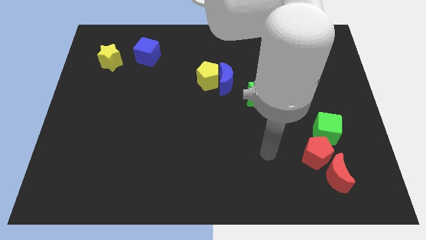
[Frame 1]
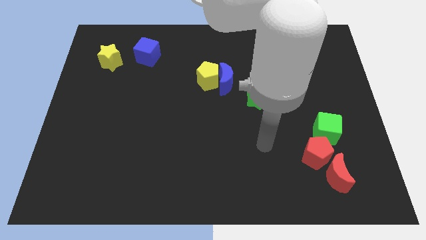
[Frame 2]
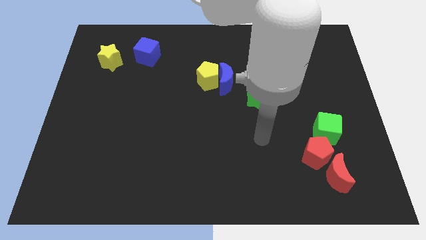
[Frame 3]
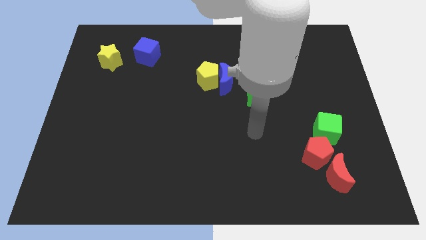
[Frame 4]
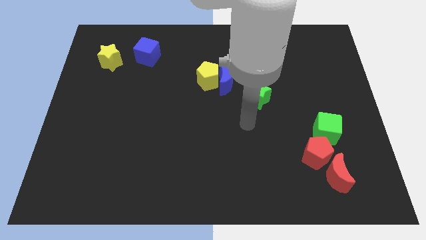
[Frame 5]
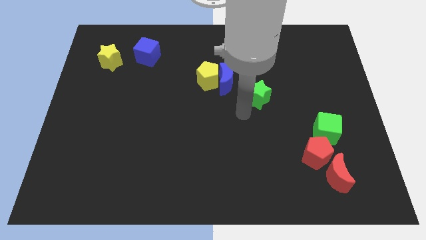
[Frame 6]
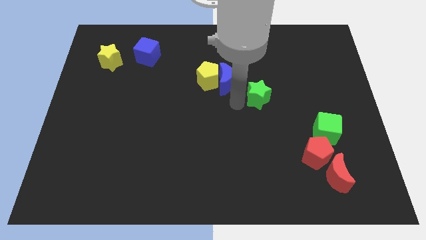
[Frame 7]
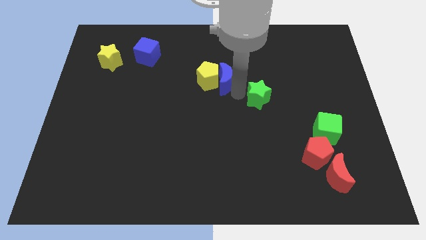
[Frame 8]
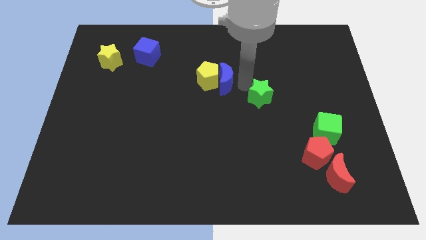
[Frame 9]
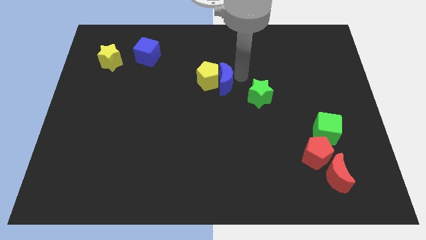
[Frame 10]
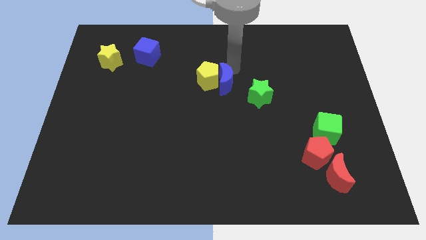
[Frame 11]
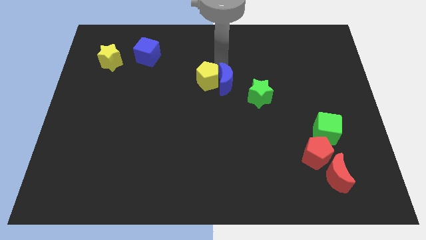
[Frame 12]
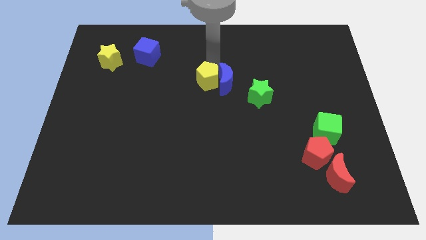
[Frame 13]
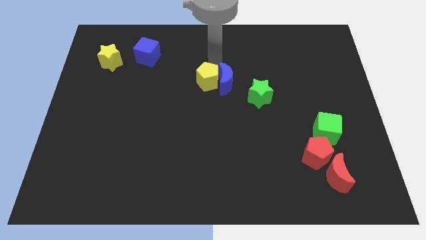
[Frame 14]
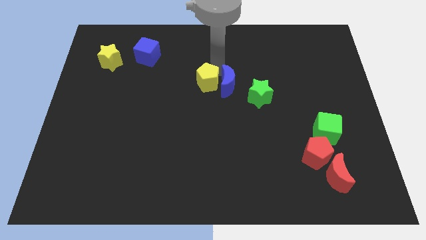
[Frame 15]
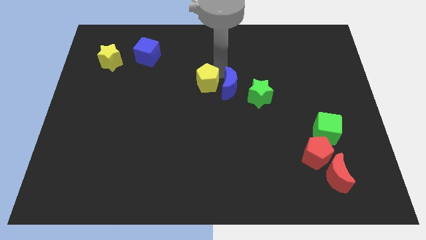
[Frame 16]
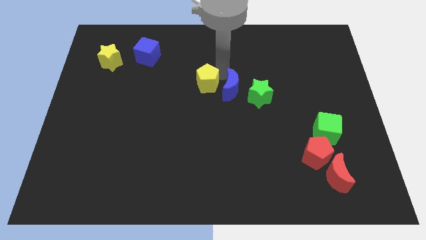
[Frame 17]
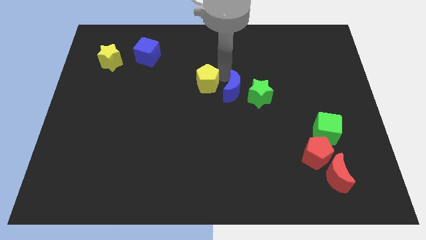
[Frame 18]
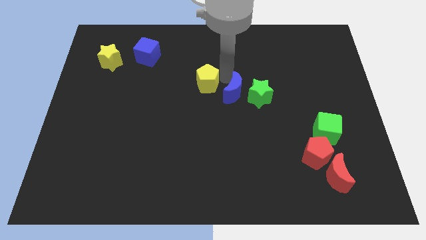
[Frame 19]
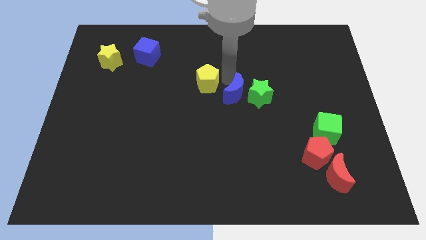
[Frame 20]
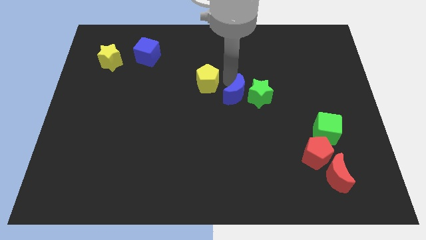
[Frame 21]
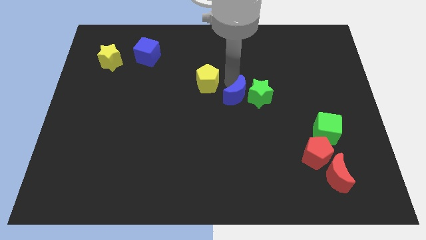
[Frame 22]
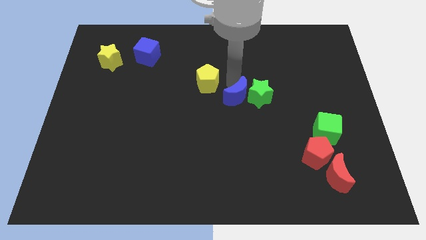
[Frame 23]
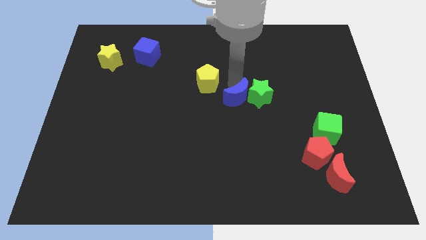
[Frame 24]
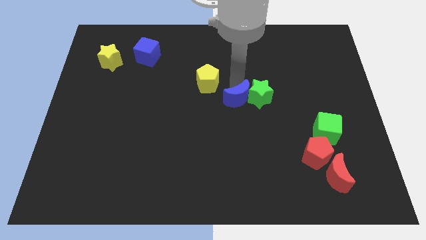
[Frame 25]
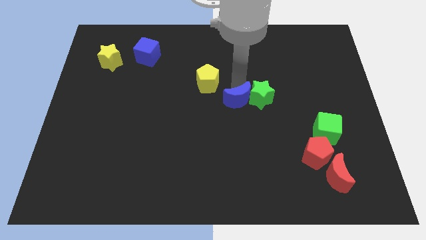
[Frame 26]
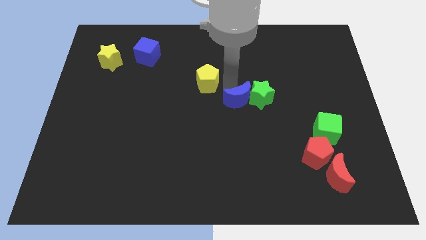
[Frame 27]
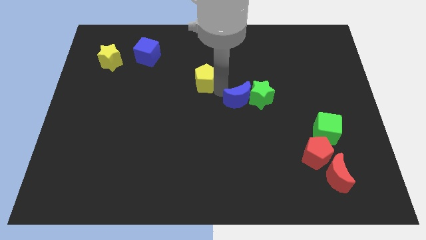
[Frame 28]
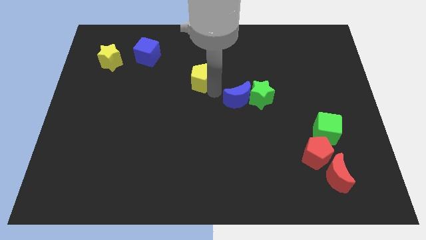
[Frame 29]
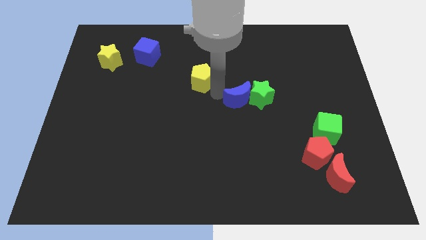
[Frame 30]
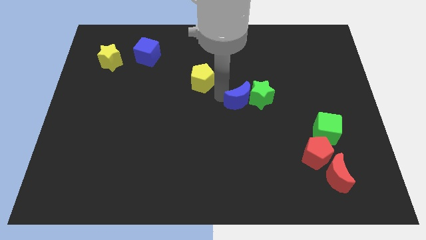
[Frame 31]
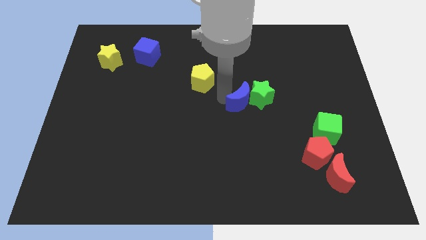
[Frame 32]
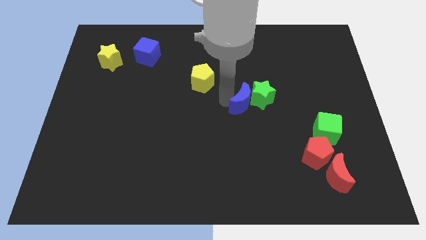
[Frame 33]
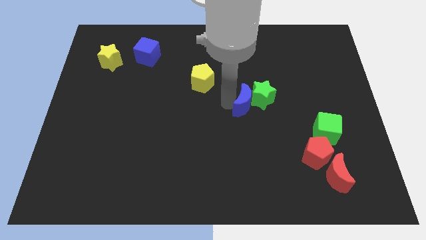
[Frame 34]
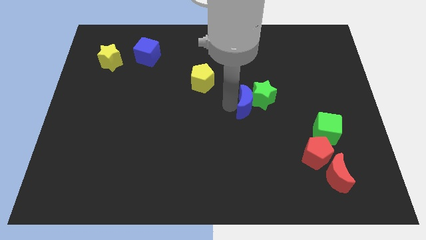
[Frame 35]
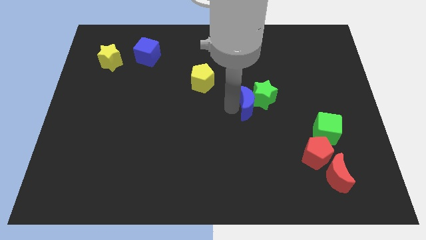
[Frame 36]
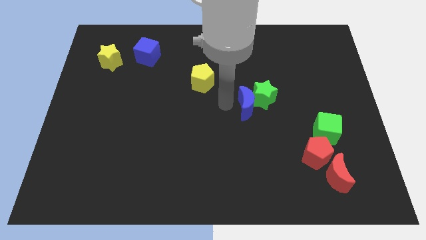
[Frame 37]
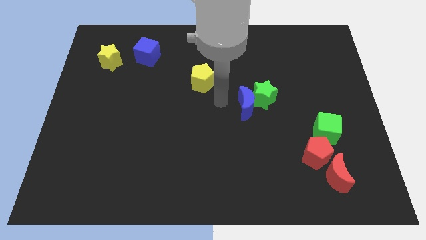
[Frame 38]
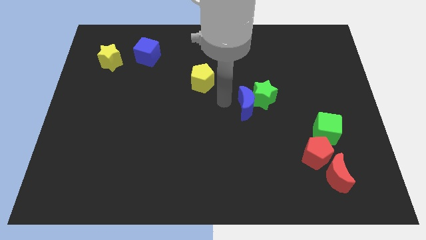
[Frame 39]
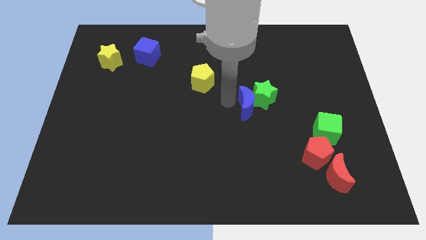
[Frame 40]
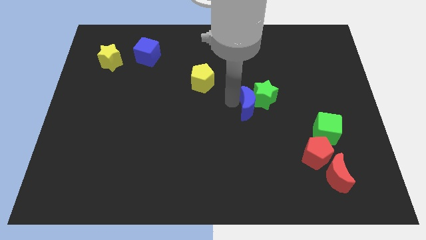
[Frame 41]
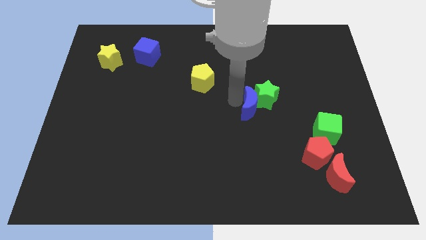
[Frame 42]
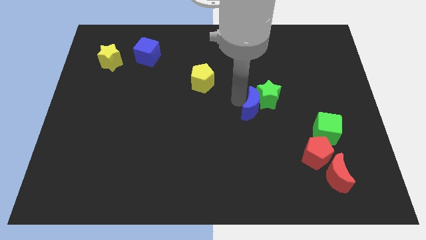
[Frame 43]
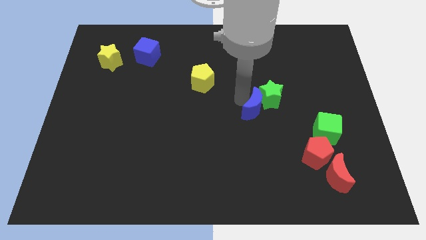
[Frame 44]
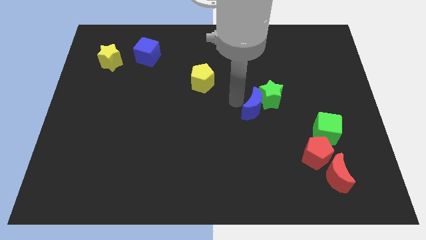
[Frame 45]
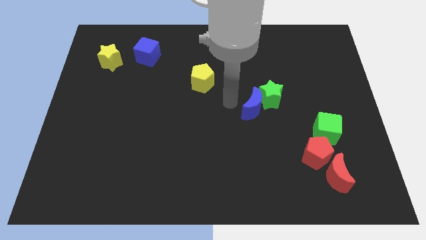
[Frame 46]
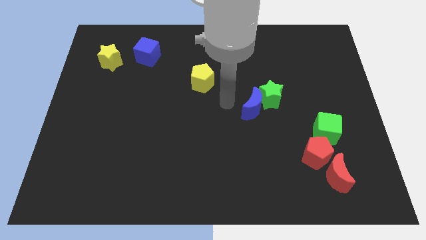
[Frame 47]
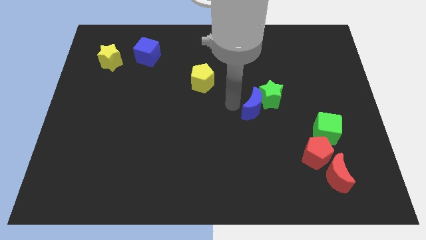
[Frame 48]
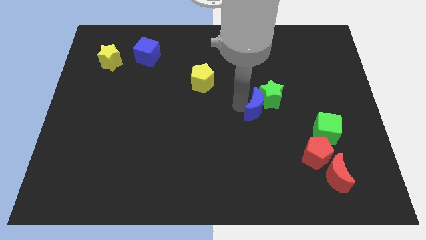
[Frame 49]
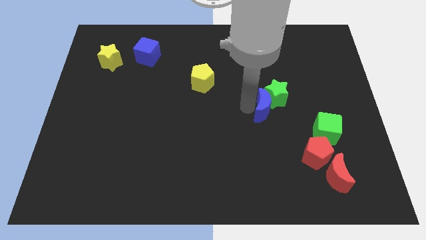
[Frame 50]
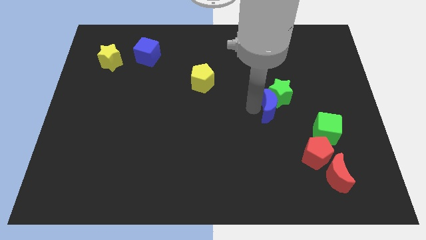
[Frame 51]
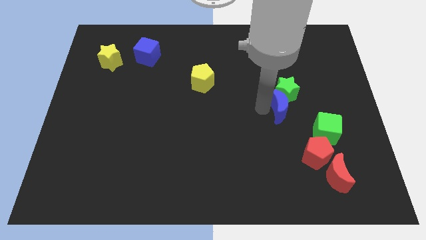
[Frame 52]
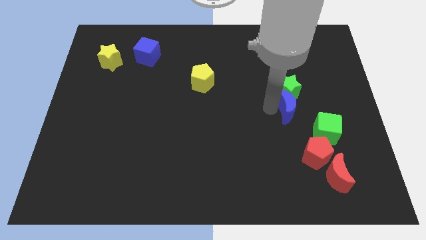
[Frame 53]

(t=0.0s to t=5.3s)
put the blue moon above the red pentagon

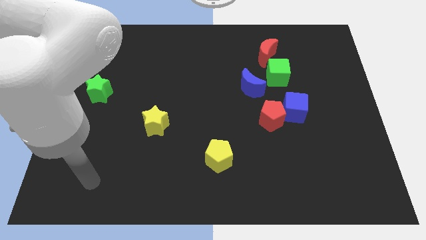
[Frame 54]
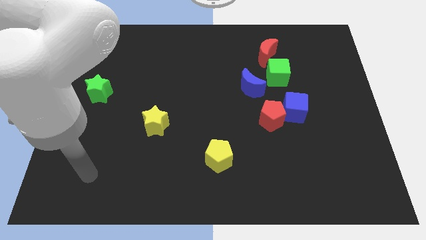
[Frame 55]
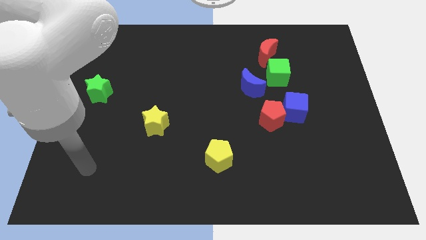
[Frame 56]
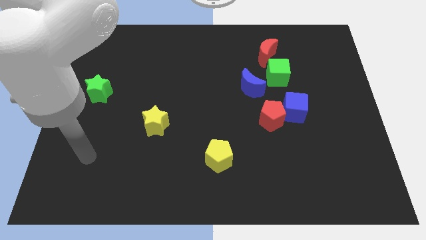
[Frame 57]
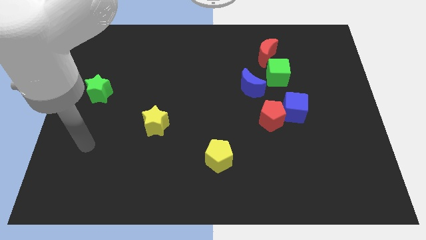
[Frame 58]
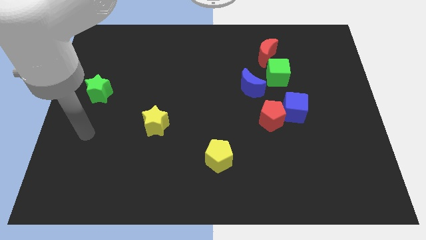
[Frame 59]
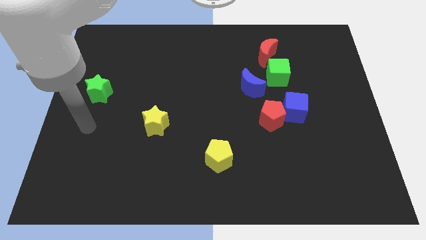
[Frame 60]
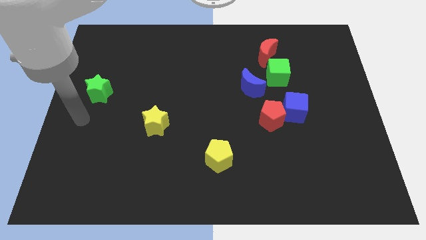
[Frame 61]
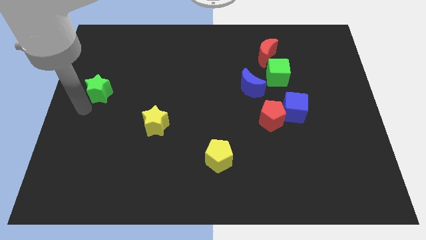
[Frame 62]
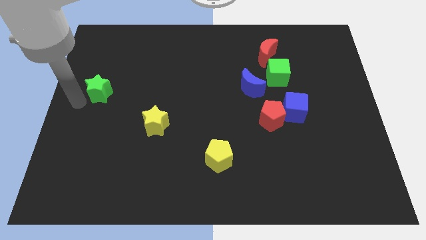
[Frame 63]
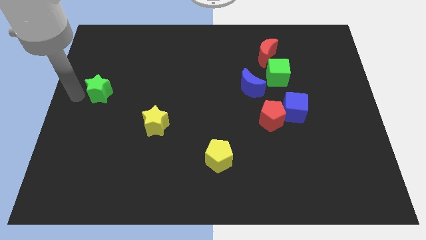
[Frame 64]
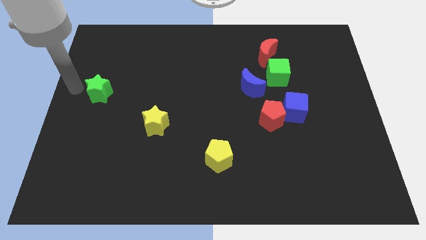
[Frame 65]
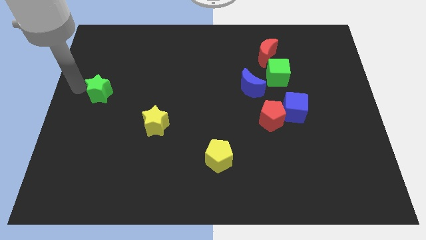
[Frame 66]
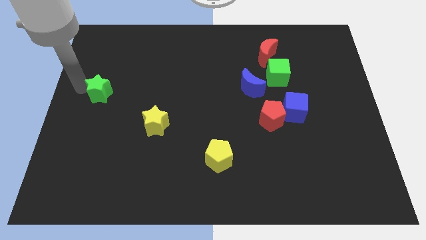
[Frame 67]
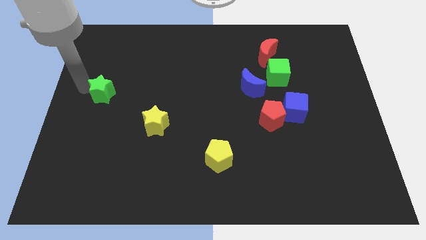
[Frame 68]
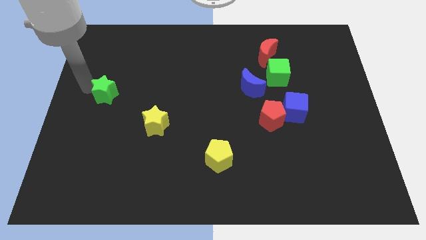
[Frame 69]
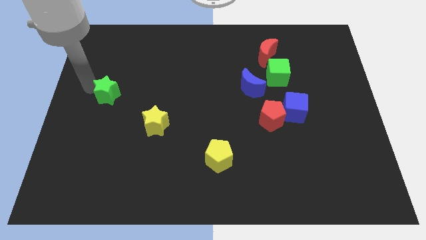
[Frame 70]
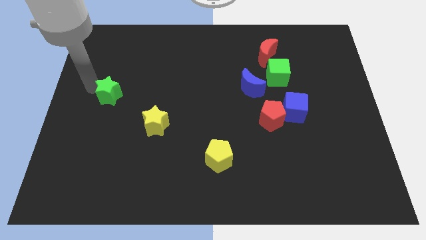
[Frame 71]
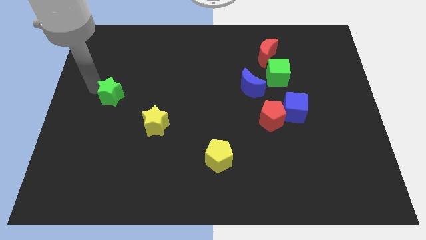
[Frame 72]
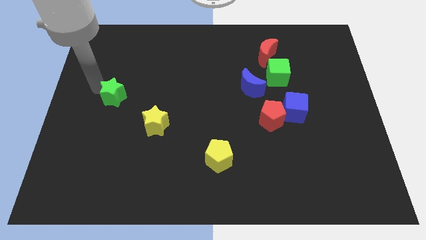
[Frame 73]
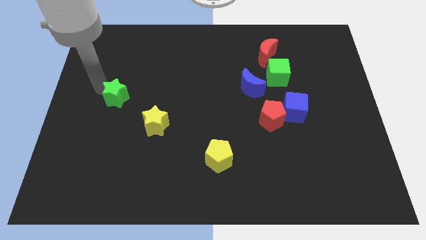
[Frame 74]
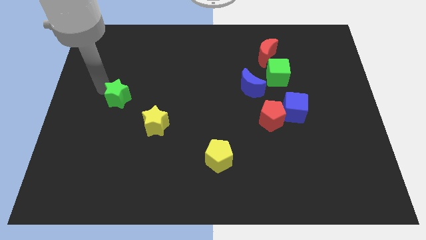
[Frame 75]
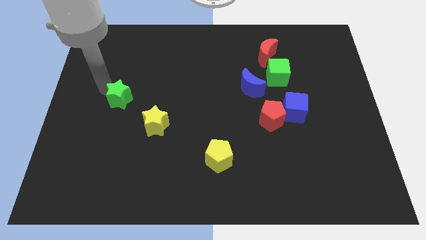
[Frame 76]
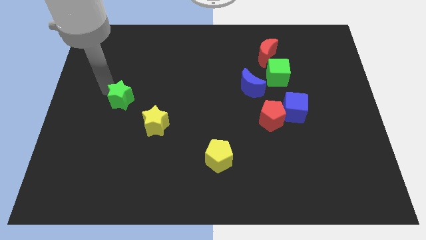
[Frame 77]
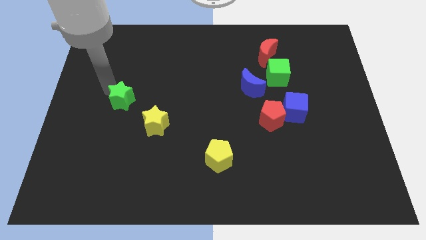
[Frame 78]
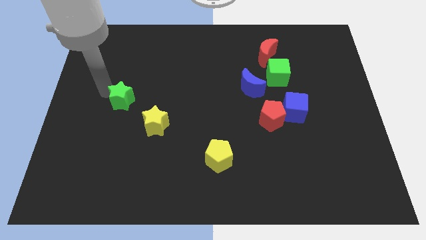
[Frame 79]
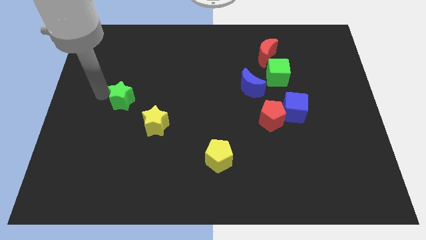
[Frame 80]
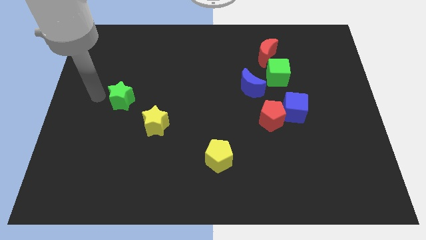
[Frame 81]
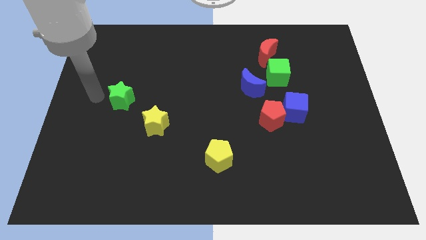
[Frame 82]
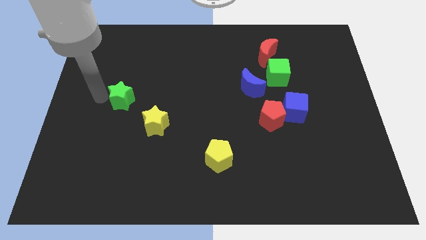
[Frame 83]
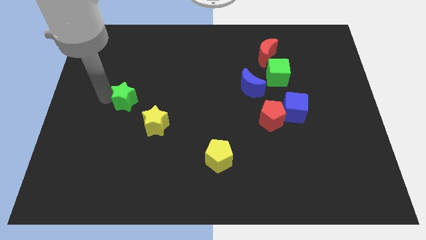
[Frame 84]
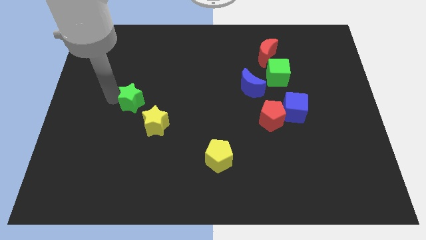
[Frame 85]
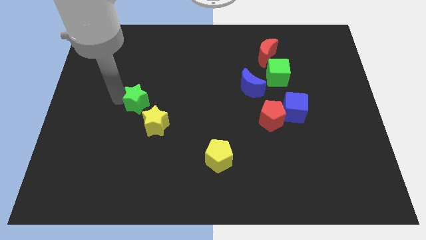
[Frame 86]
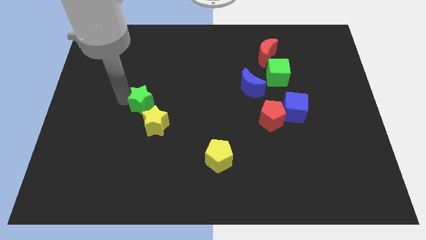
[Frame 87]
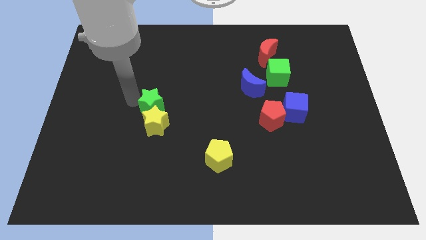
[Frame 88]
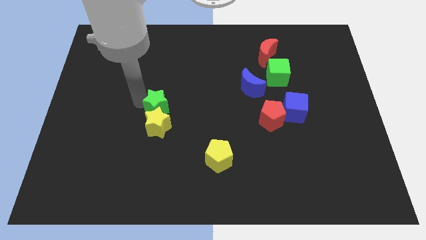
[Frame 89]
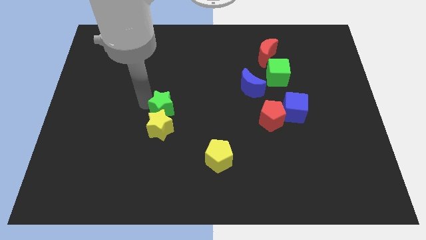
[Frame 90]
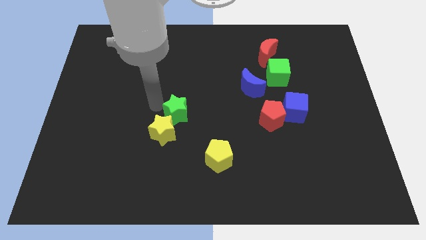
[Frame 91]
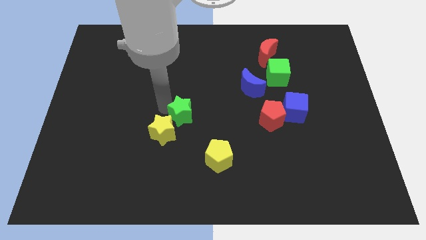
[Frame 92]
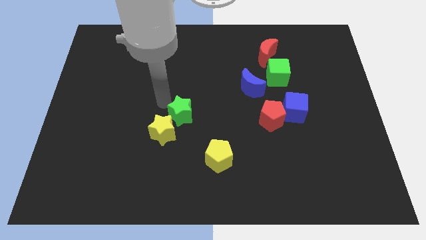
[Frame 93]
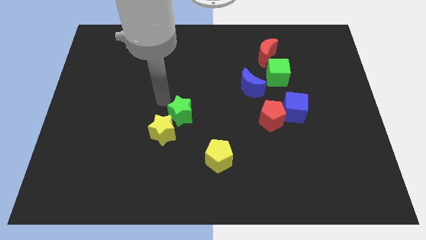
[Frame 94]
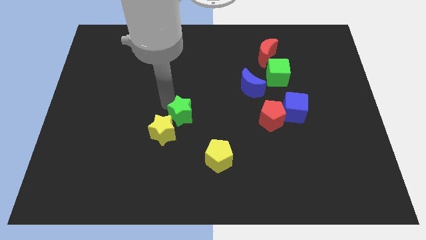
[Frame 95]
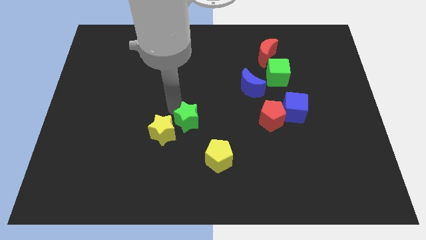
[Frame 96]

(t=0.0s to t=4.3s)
push the green star right of the yellow star
